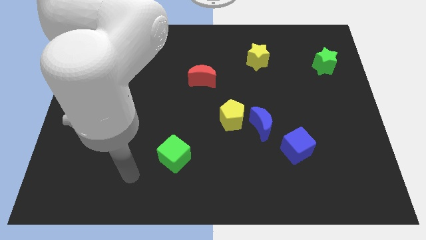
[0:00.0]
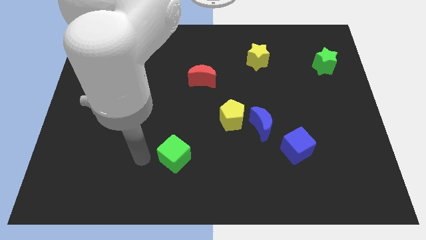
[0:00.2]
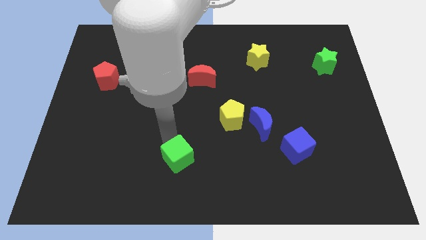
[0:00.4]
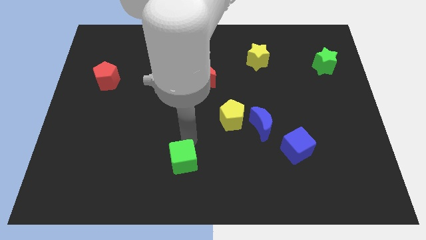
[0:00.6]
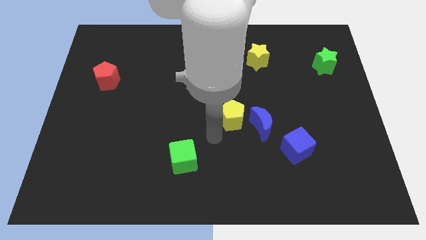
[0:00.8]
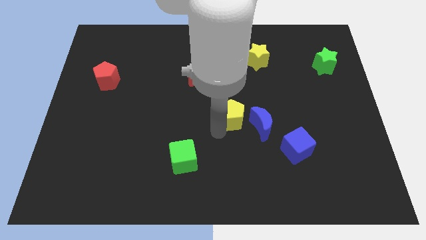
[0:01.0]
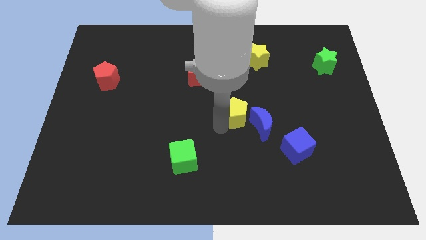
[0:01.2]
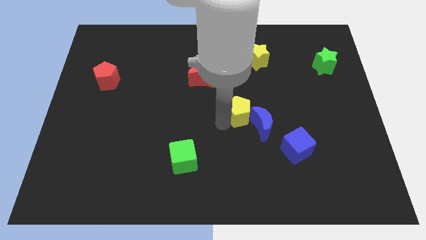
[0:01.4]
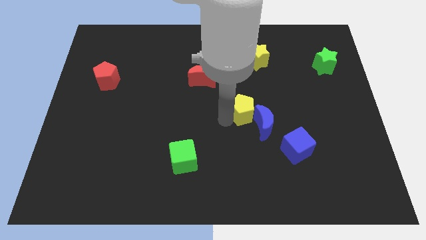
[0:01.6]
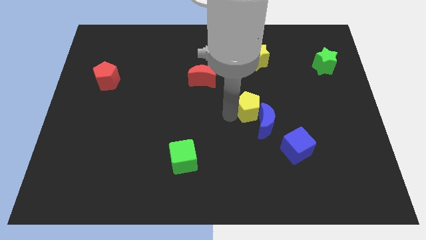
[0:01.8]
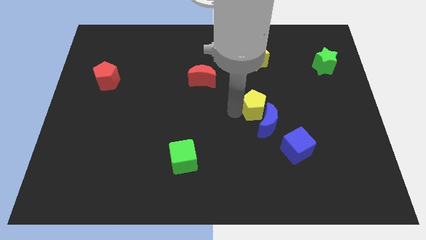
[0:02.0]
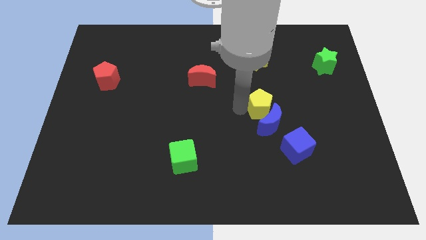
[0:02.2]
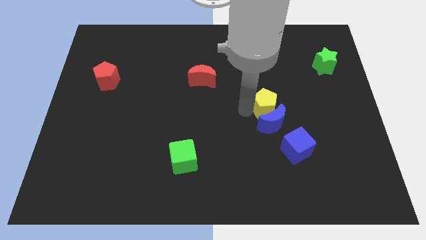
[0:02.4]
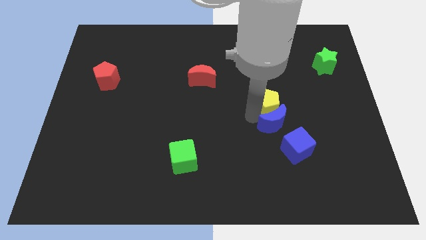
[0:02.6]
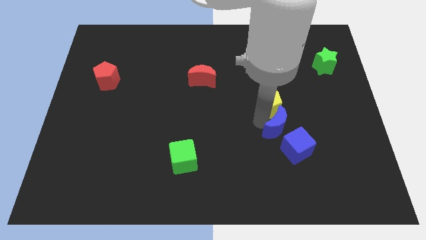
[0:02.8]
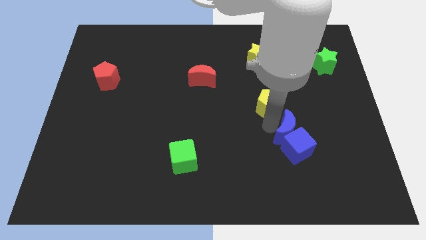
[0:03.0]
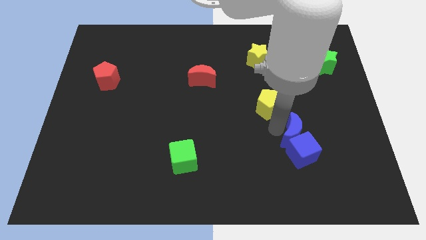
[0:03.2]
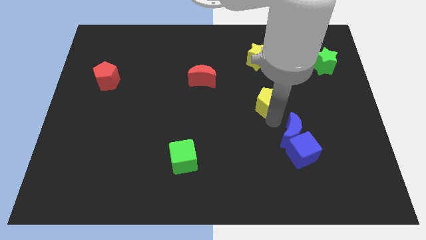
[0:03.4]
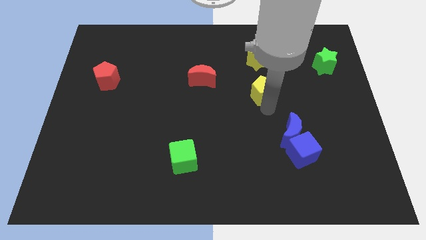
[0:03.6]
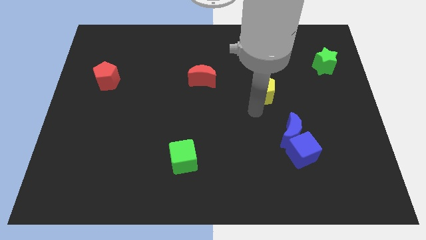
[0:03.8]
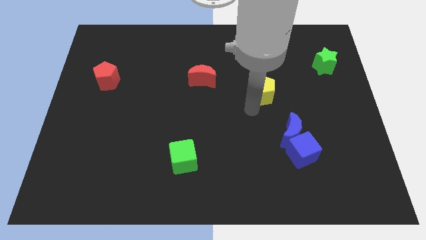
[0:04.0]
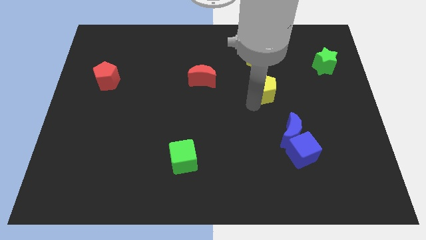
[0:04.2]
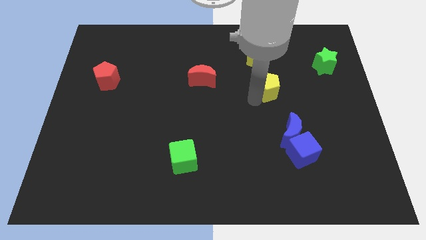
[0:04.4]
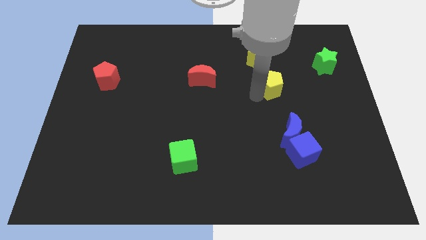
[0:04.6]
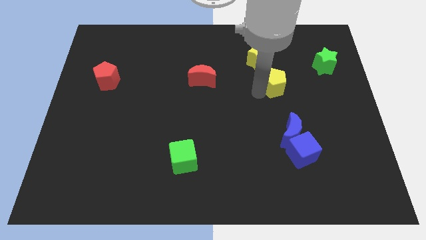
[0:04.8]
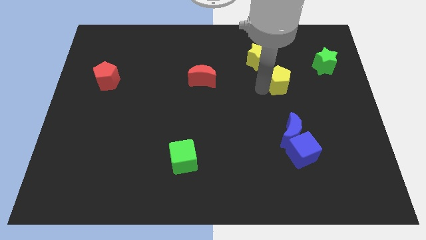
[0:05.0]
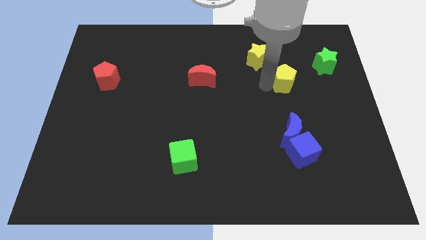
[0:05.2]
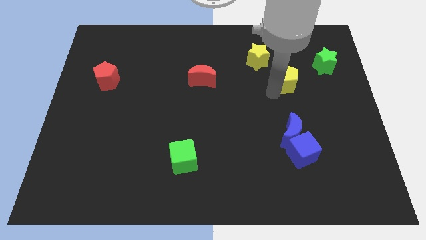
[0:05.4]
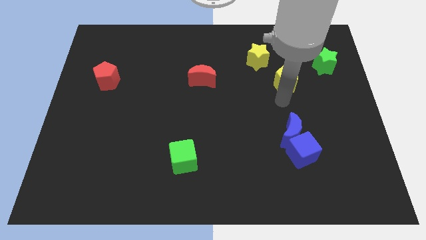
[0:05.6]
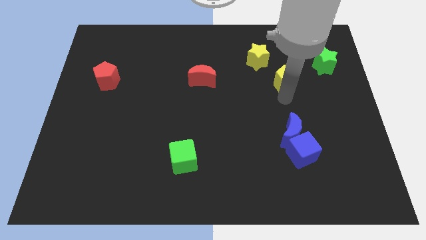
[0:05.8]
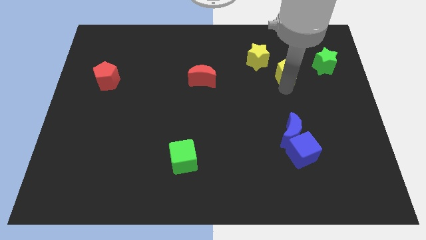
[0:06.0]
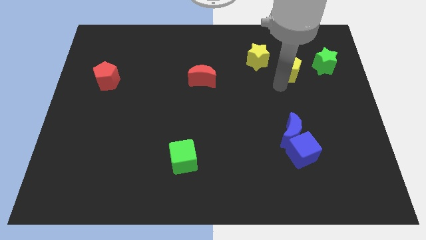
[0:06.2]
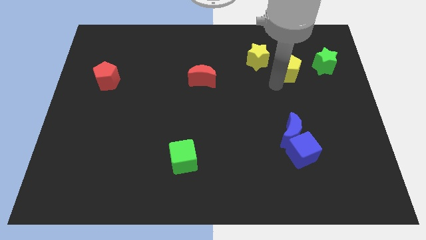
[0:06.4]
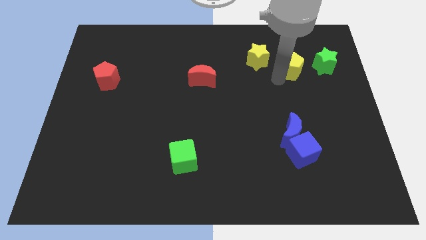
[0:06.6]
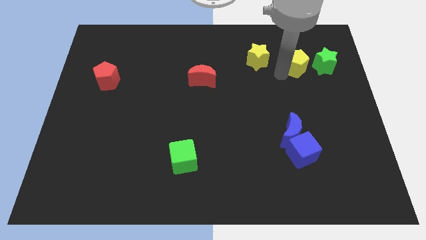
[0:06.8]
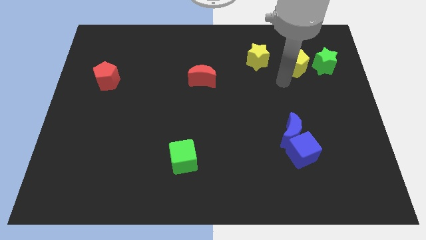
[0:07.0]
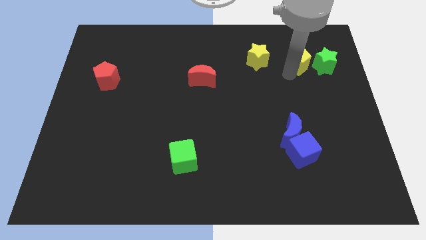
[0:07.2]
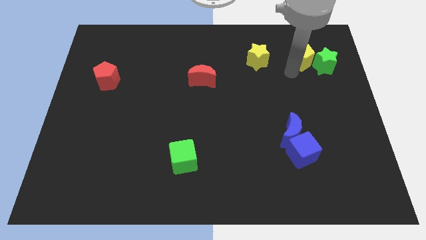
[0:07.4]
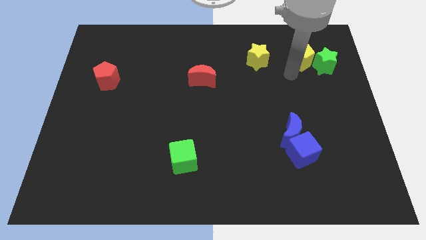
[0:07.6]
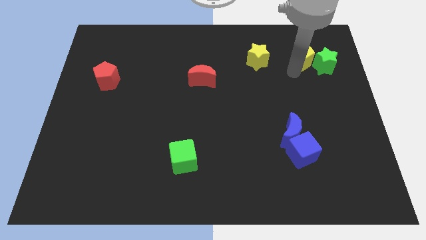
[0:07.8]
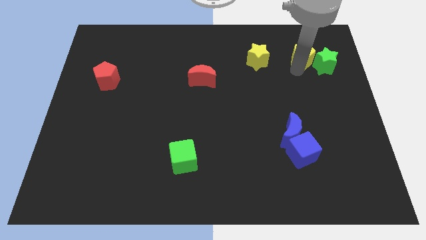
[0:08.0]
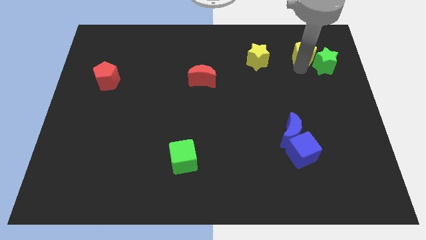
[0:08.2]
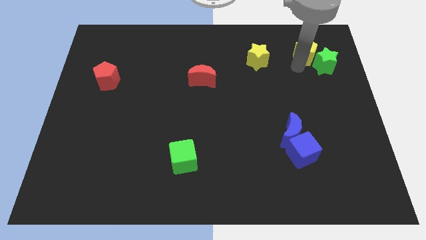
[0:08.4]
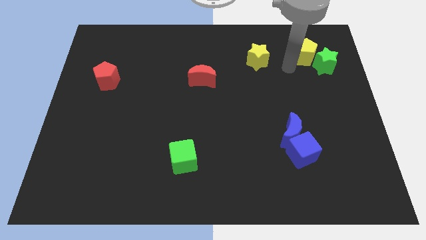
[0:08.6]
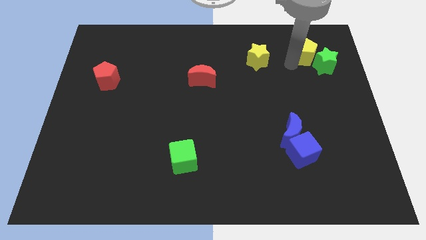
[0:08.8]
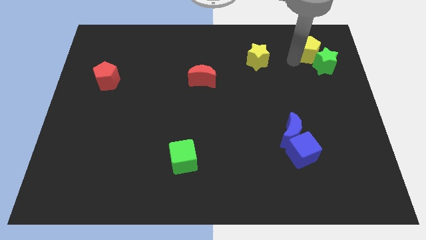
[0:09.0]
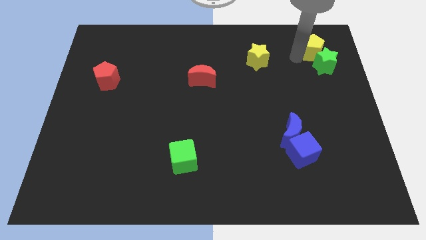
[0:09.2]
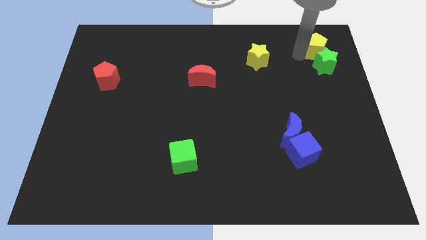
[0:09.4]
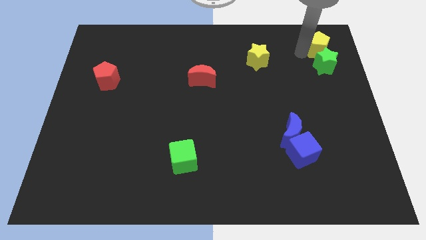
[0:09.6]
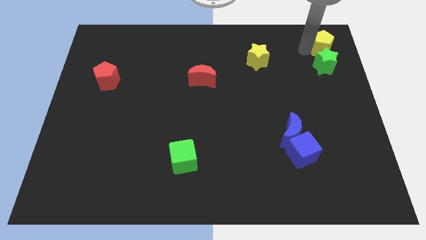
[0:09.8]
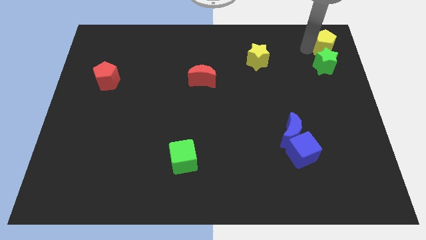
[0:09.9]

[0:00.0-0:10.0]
push the yellow pentagon to the top right corner

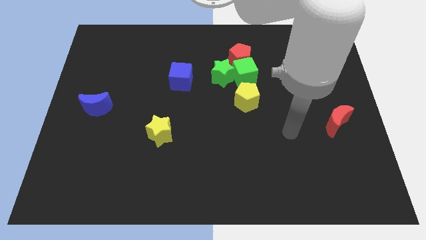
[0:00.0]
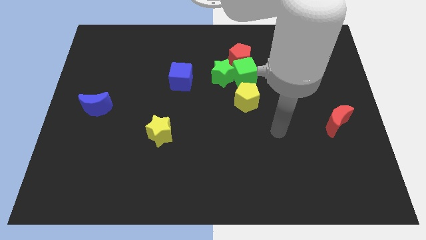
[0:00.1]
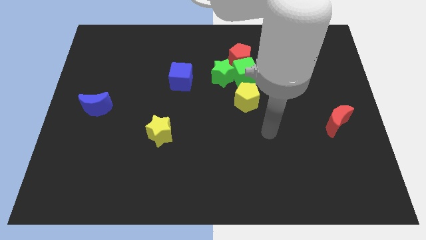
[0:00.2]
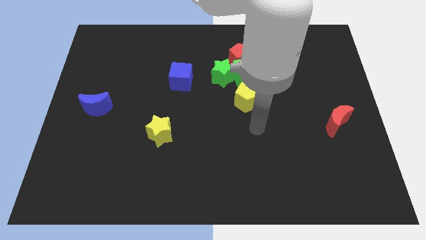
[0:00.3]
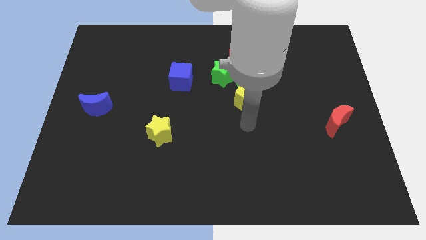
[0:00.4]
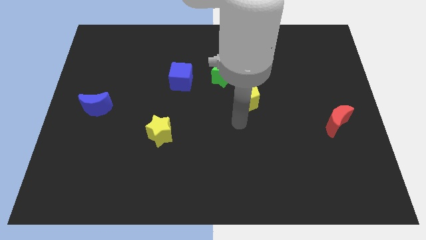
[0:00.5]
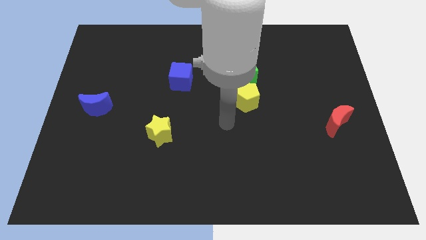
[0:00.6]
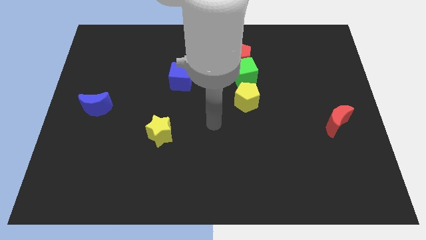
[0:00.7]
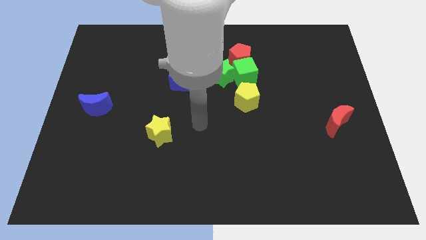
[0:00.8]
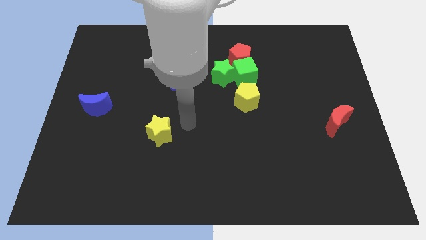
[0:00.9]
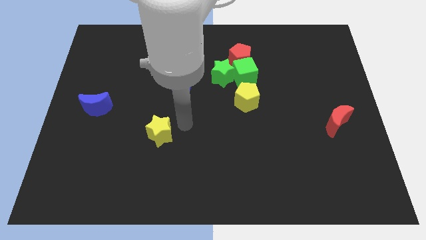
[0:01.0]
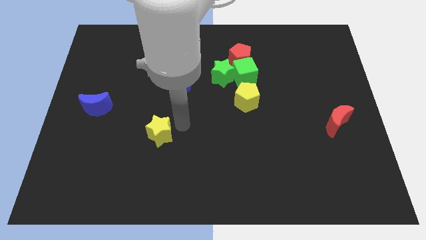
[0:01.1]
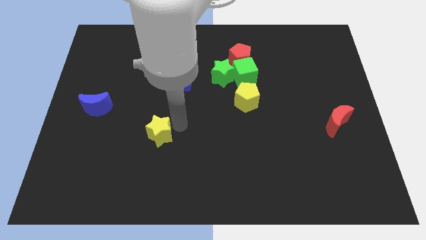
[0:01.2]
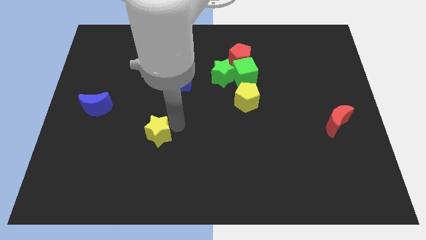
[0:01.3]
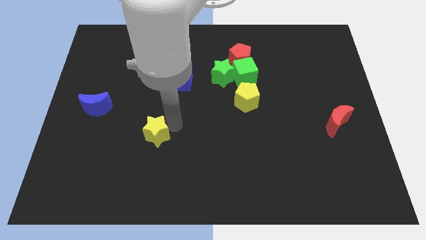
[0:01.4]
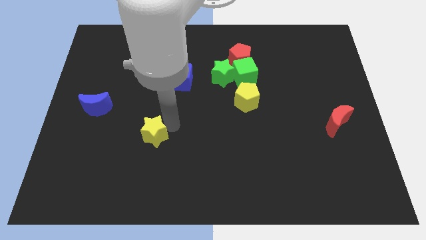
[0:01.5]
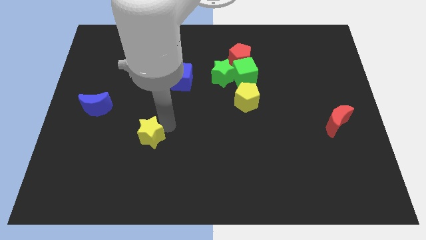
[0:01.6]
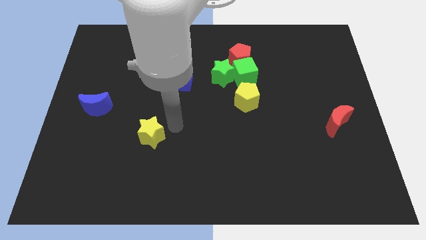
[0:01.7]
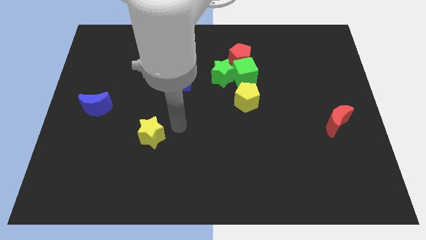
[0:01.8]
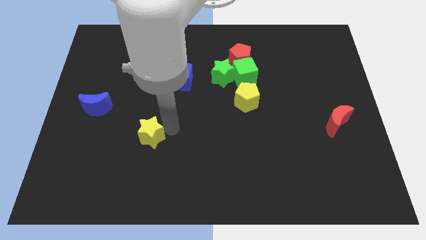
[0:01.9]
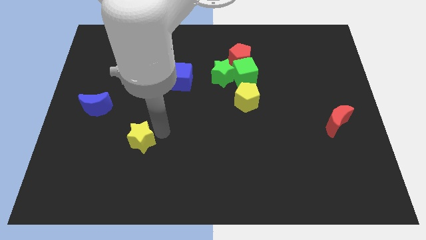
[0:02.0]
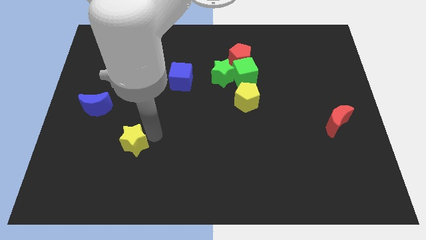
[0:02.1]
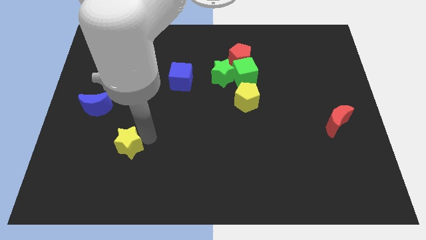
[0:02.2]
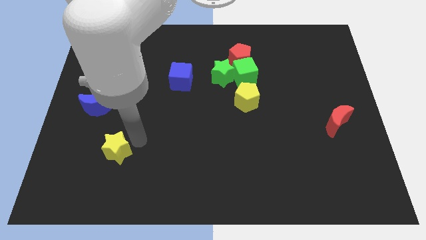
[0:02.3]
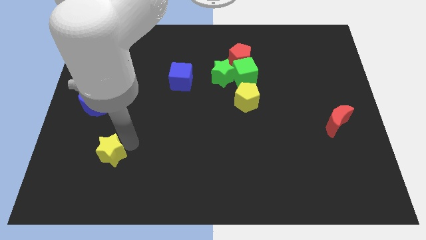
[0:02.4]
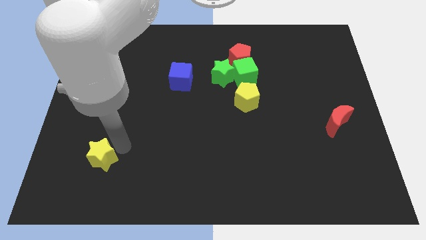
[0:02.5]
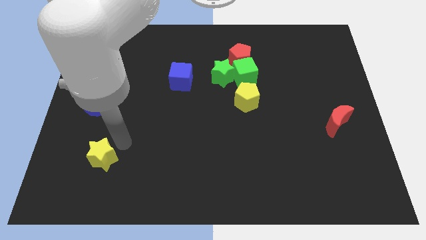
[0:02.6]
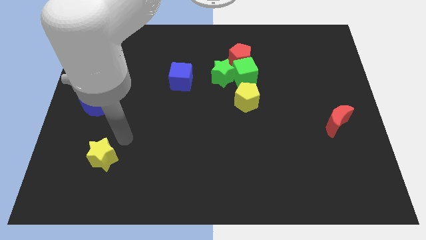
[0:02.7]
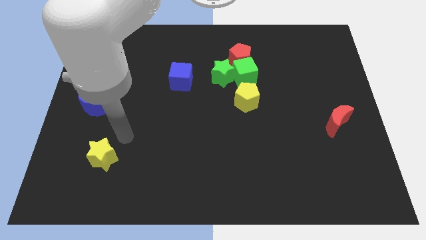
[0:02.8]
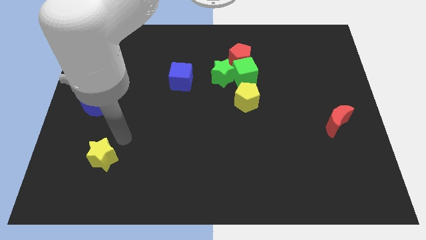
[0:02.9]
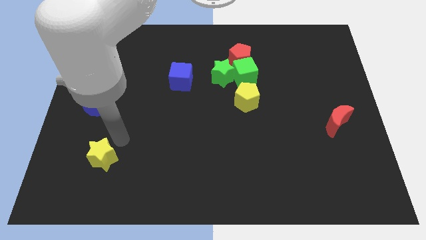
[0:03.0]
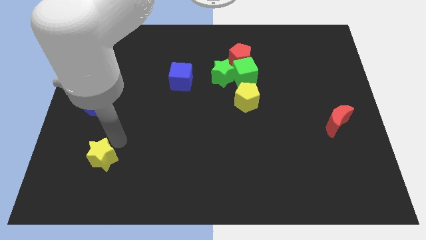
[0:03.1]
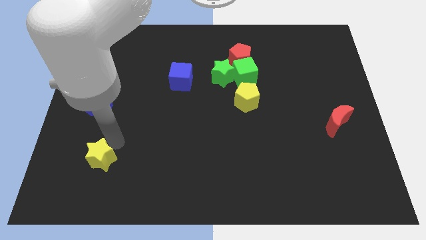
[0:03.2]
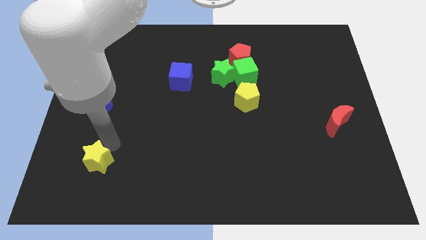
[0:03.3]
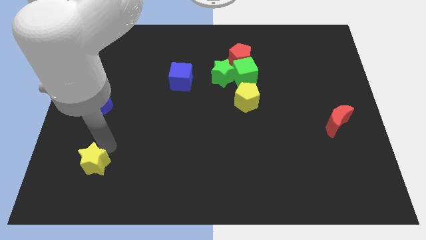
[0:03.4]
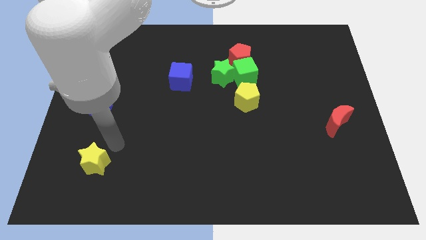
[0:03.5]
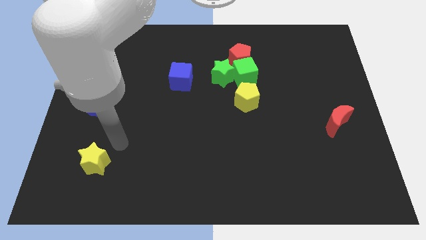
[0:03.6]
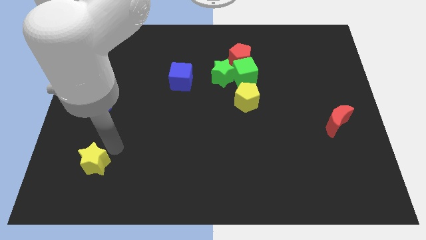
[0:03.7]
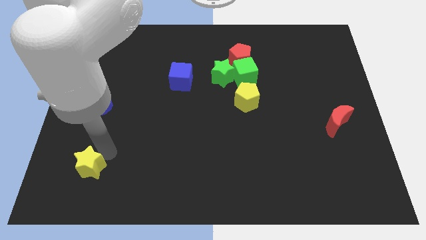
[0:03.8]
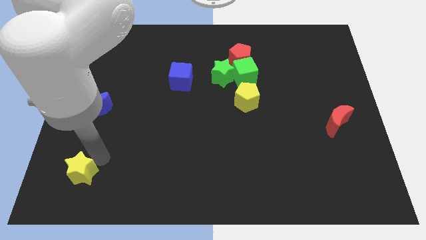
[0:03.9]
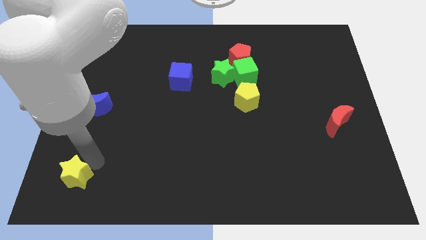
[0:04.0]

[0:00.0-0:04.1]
push the yellow star to the bottom left
